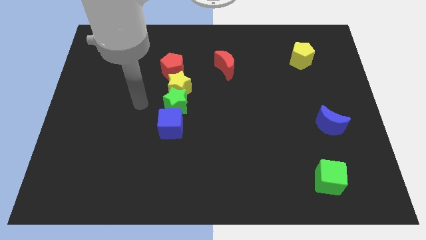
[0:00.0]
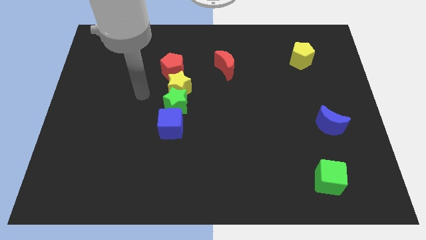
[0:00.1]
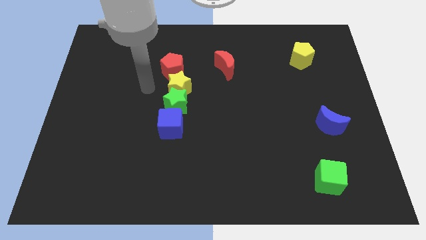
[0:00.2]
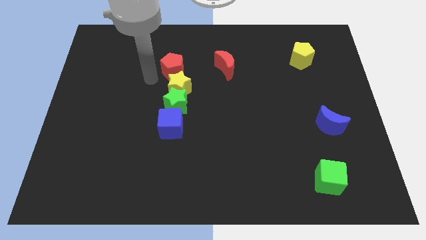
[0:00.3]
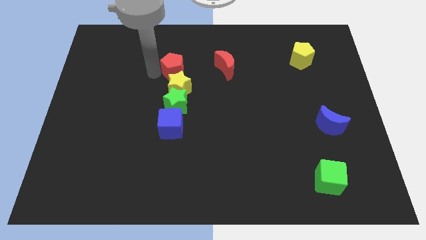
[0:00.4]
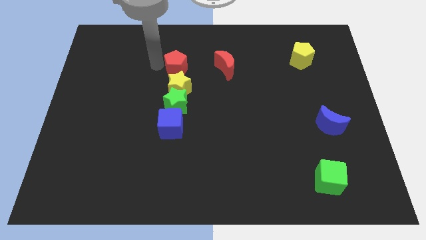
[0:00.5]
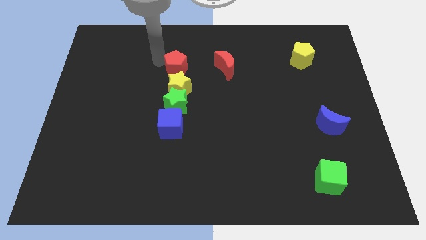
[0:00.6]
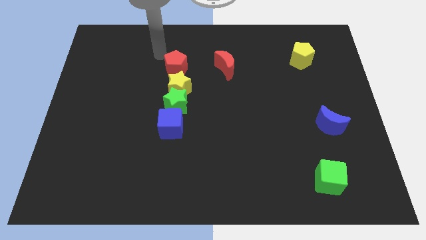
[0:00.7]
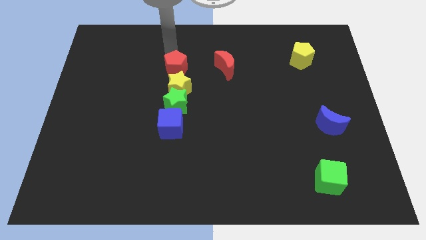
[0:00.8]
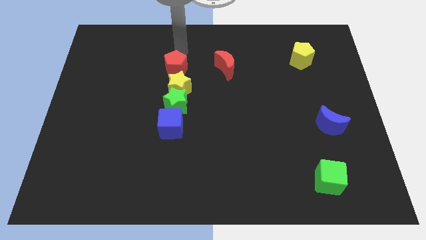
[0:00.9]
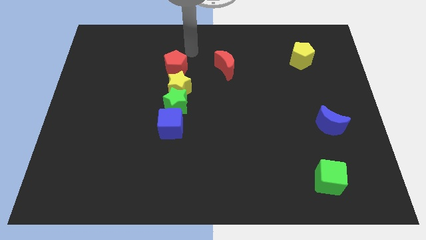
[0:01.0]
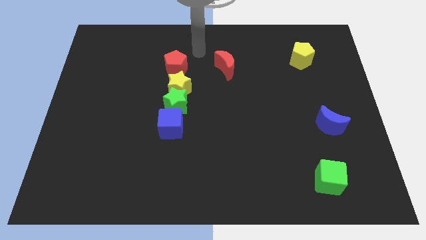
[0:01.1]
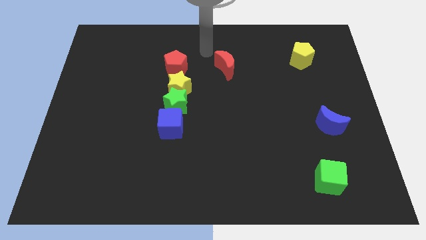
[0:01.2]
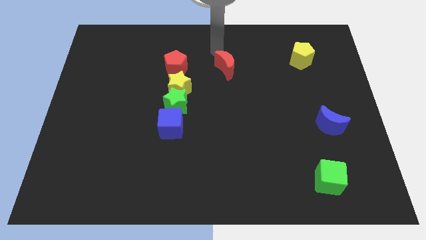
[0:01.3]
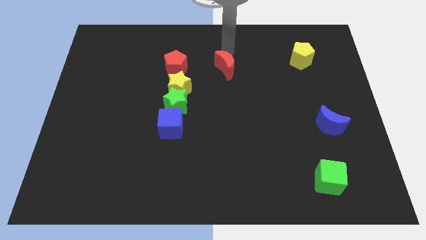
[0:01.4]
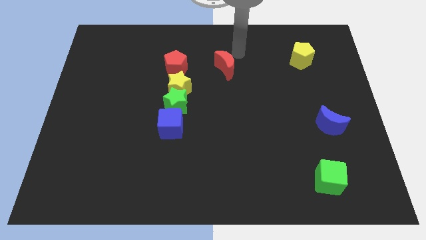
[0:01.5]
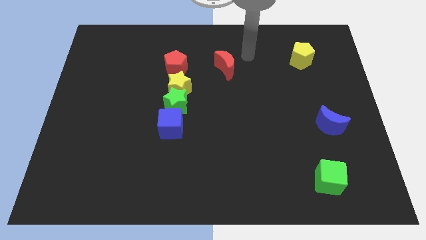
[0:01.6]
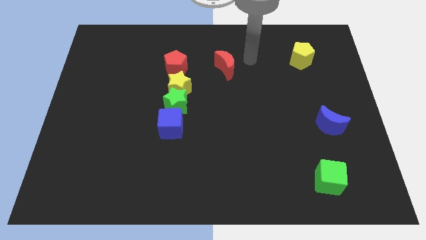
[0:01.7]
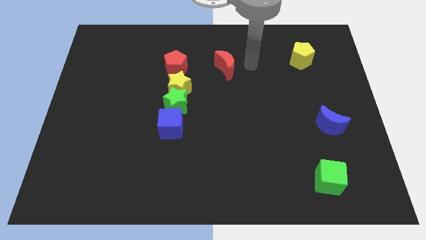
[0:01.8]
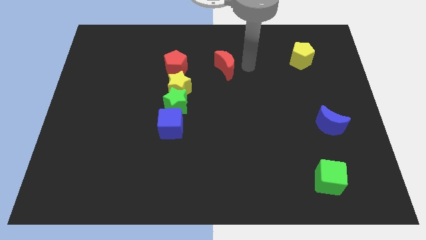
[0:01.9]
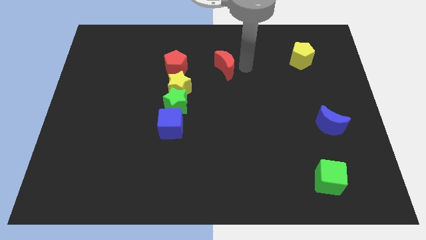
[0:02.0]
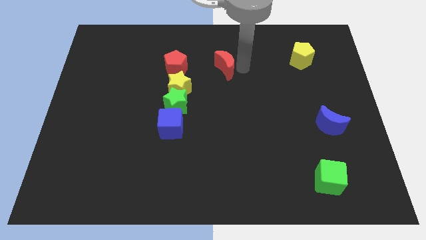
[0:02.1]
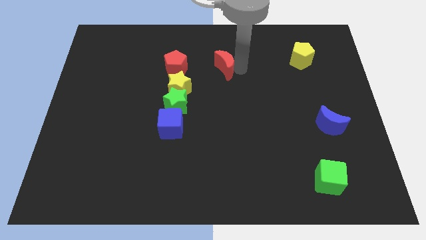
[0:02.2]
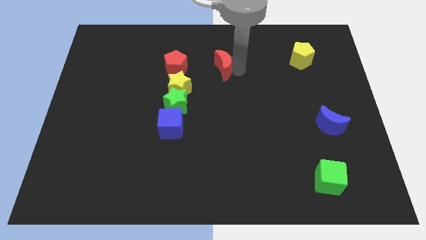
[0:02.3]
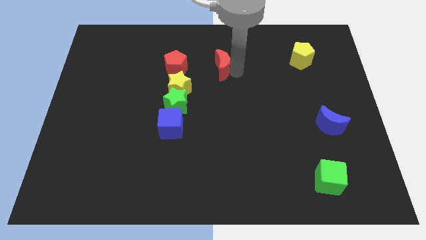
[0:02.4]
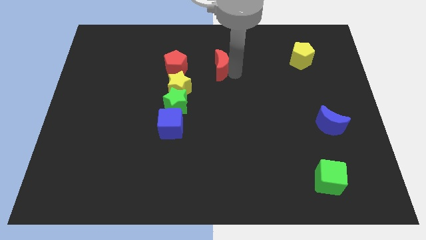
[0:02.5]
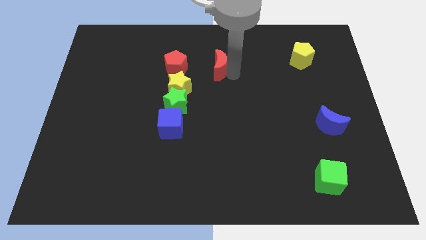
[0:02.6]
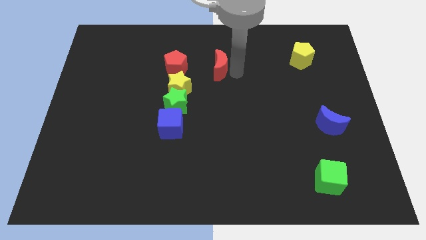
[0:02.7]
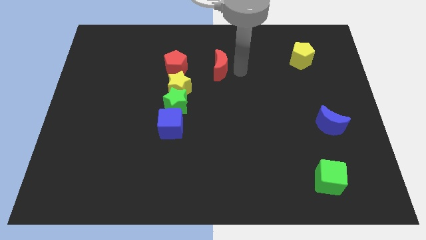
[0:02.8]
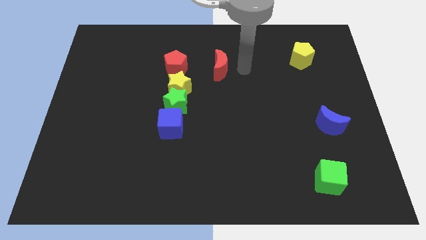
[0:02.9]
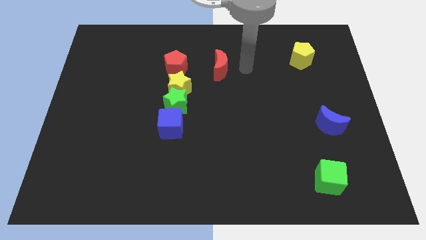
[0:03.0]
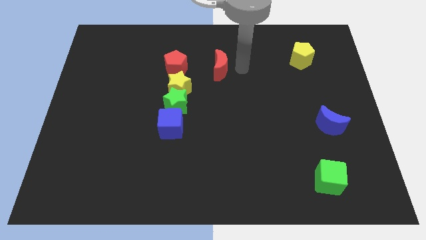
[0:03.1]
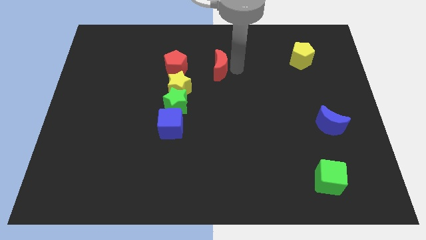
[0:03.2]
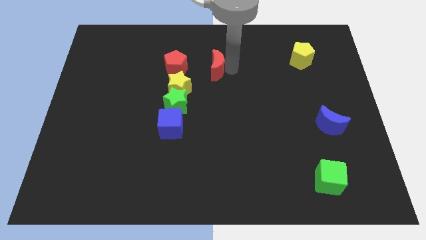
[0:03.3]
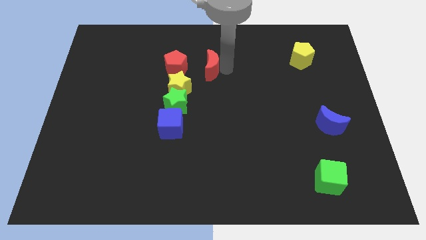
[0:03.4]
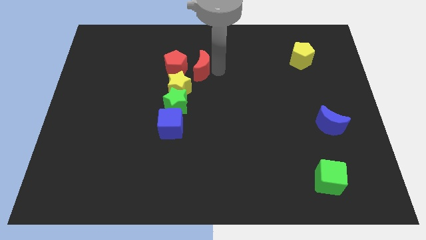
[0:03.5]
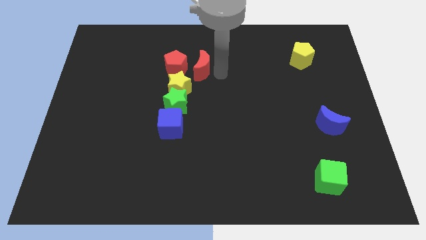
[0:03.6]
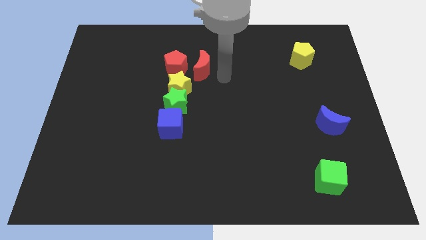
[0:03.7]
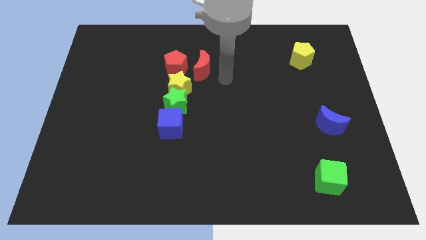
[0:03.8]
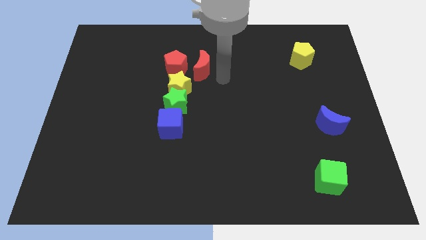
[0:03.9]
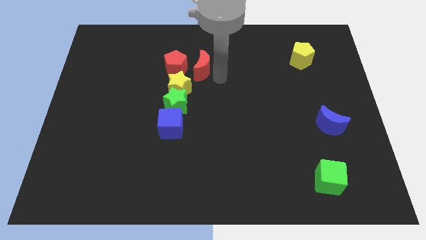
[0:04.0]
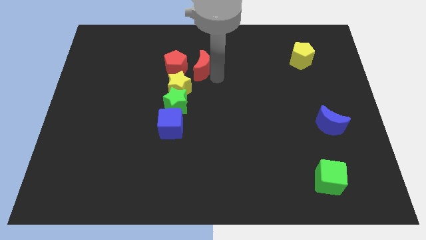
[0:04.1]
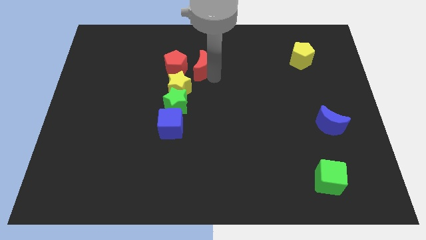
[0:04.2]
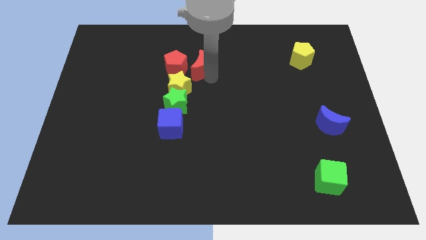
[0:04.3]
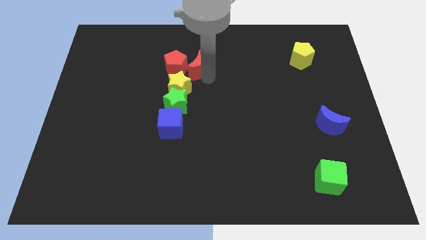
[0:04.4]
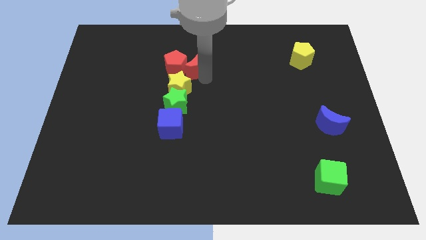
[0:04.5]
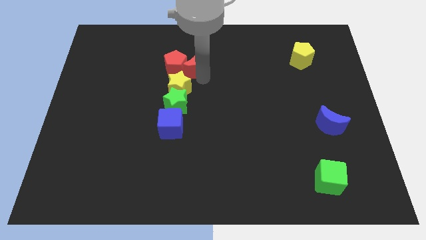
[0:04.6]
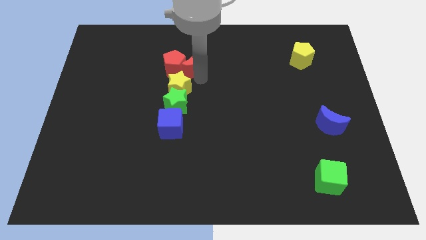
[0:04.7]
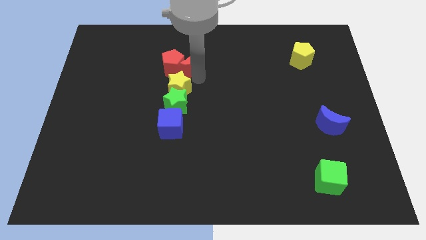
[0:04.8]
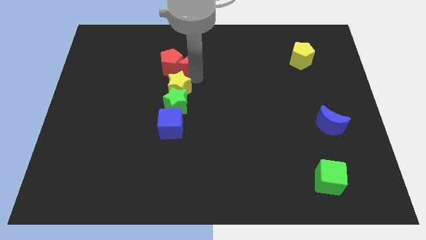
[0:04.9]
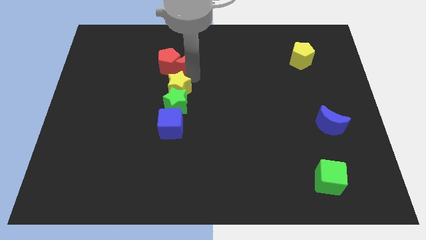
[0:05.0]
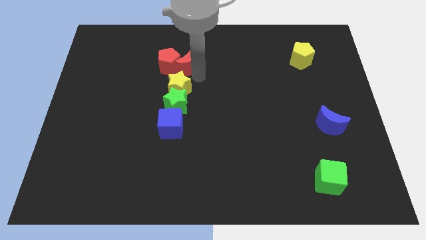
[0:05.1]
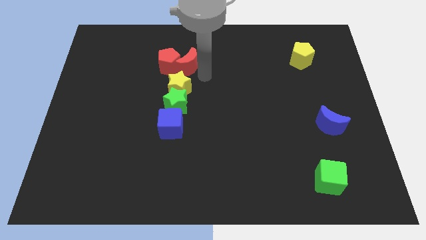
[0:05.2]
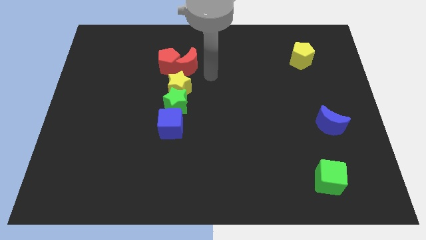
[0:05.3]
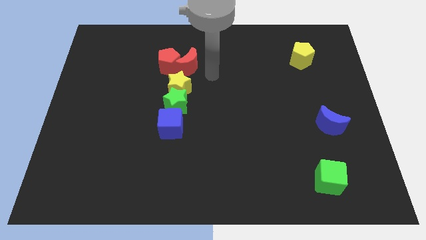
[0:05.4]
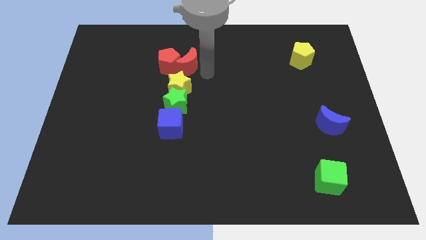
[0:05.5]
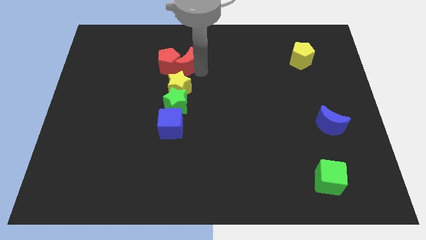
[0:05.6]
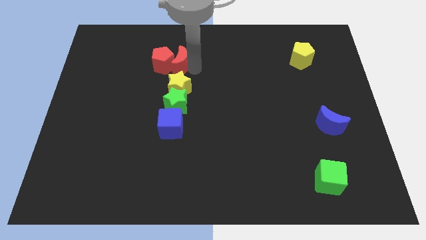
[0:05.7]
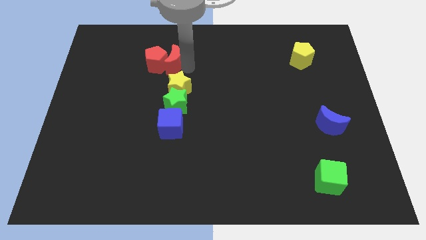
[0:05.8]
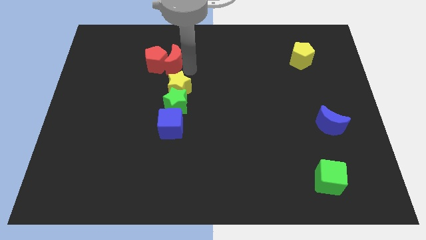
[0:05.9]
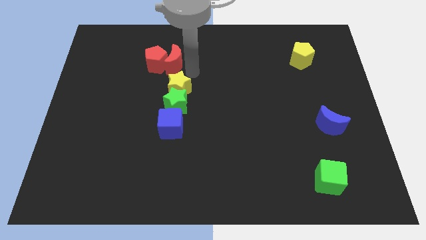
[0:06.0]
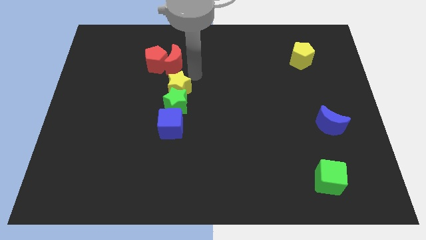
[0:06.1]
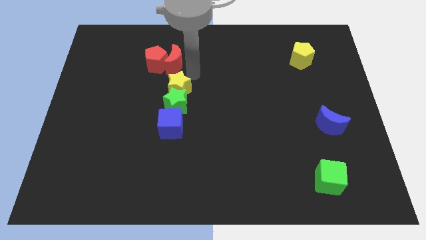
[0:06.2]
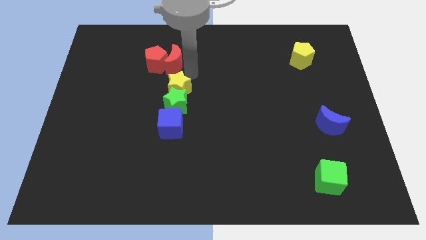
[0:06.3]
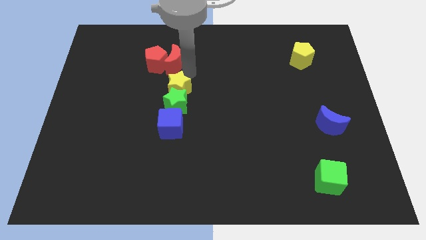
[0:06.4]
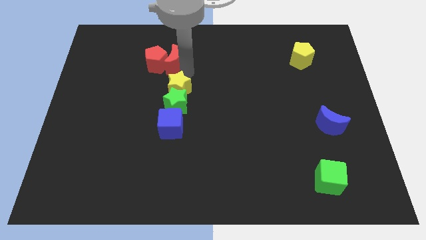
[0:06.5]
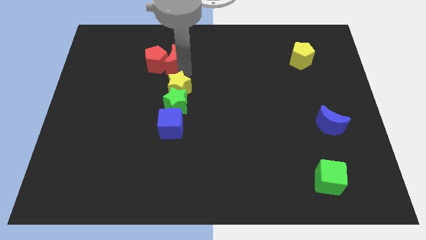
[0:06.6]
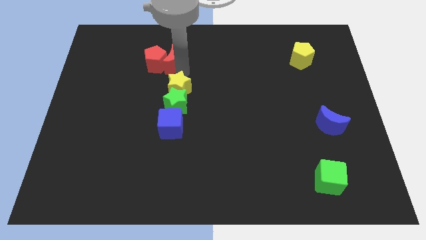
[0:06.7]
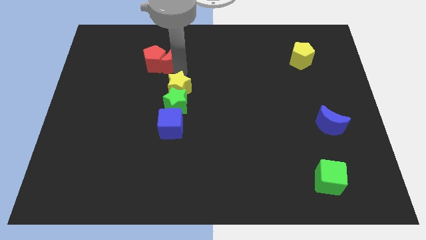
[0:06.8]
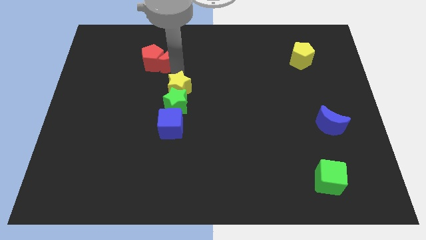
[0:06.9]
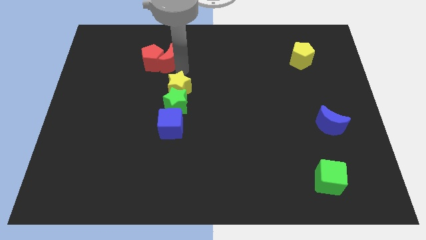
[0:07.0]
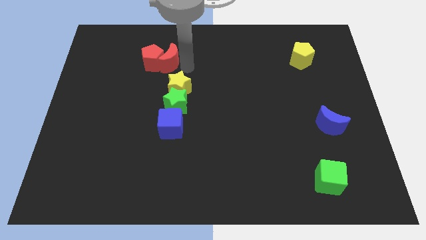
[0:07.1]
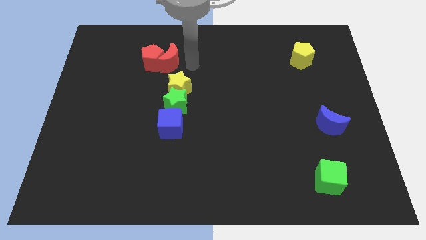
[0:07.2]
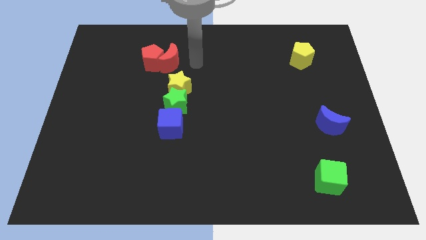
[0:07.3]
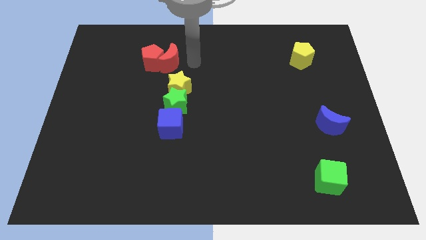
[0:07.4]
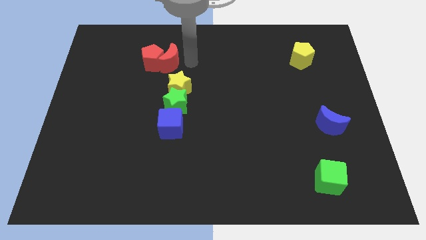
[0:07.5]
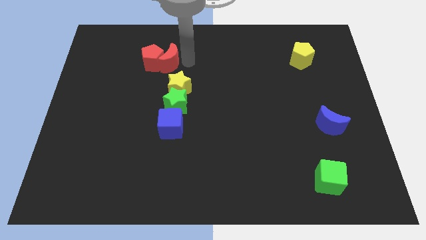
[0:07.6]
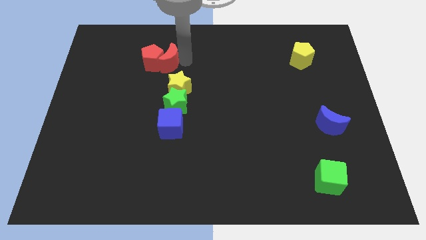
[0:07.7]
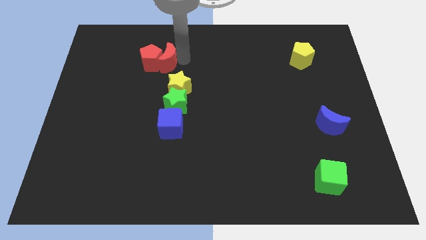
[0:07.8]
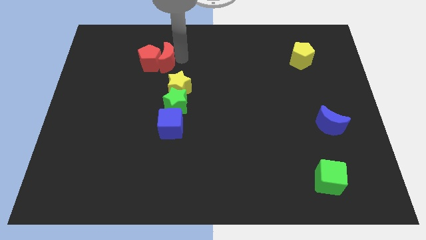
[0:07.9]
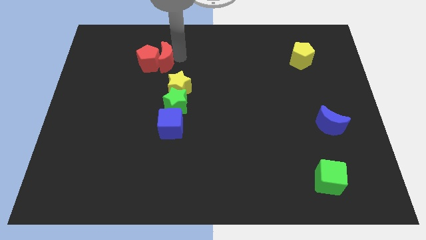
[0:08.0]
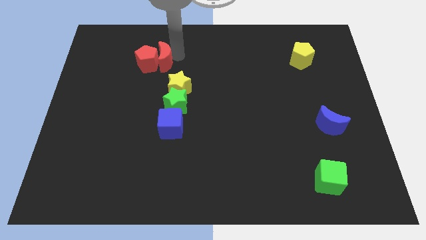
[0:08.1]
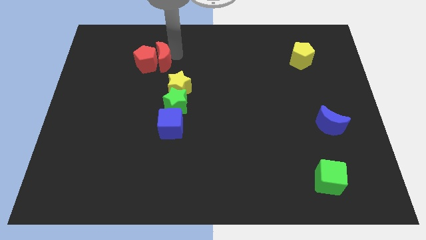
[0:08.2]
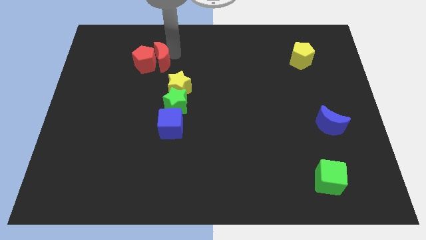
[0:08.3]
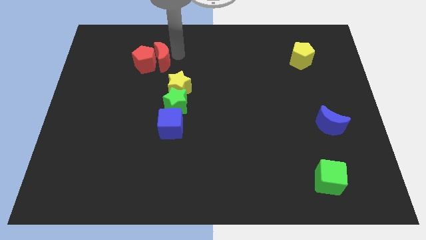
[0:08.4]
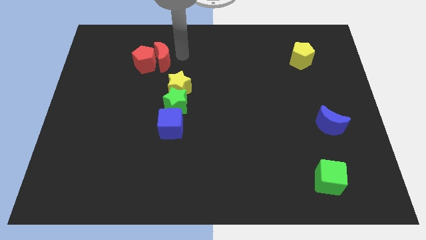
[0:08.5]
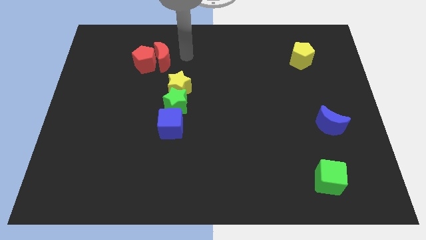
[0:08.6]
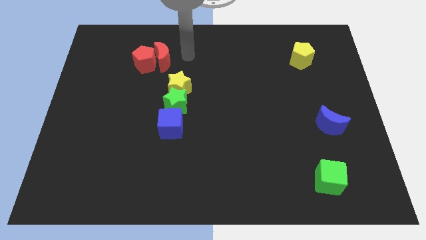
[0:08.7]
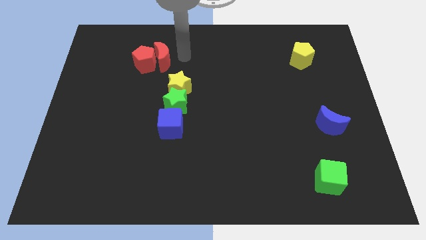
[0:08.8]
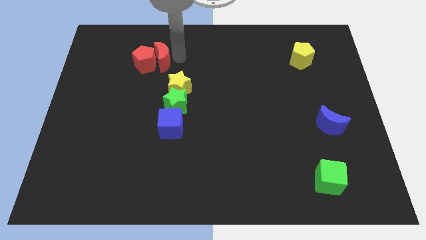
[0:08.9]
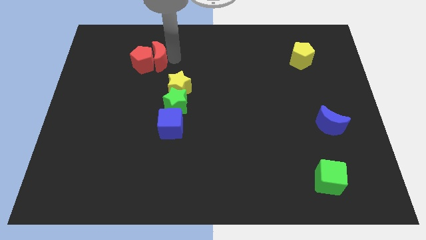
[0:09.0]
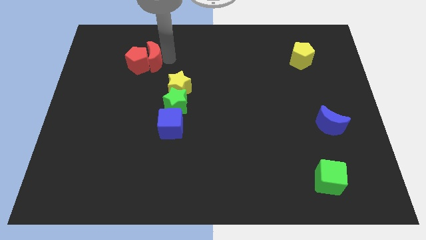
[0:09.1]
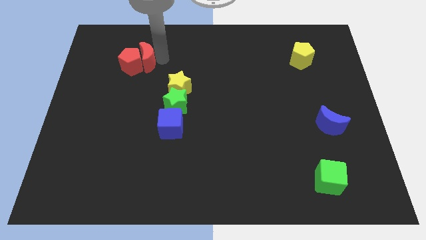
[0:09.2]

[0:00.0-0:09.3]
move the red moon to the left
